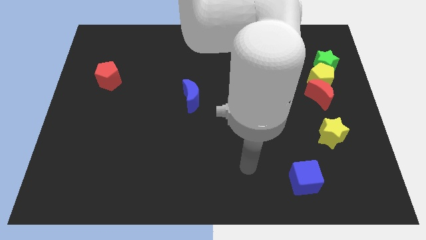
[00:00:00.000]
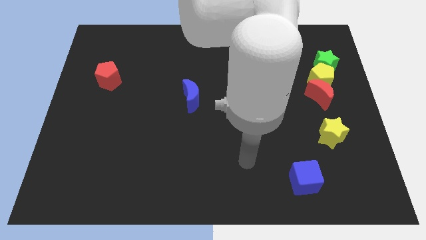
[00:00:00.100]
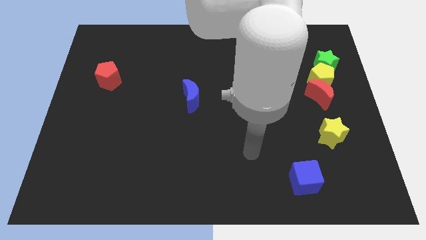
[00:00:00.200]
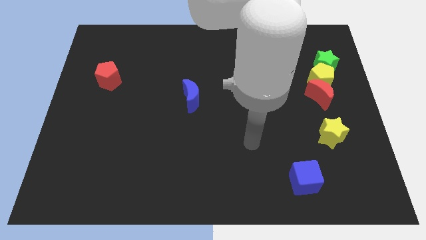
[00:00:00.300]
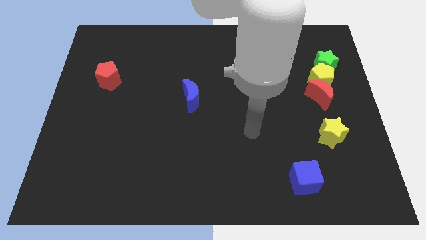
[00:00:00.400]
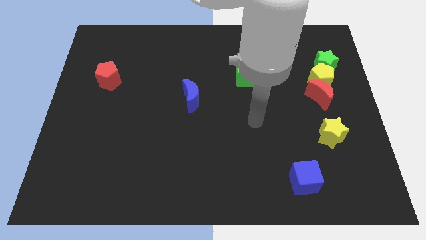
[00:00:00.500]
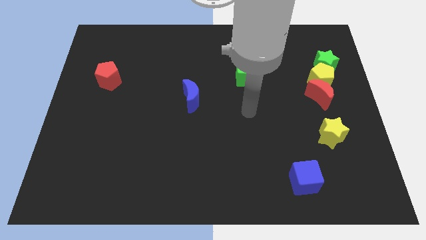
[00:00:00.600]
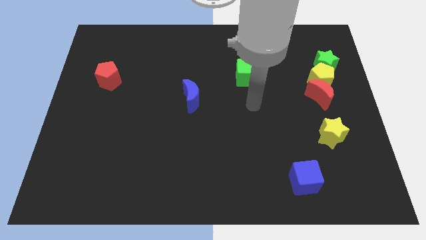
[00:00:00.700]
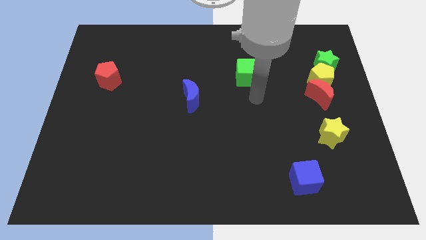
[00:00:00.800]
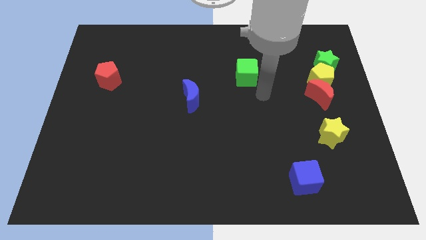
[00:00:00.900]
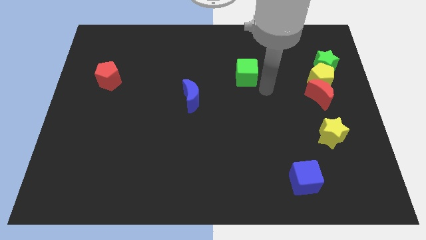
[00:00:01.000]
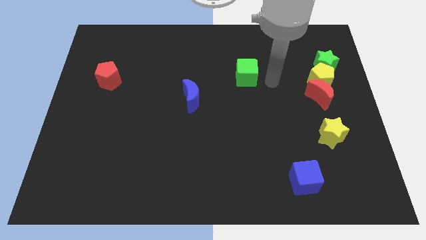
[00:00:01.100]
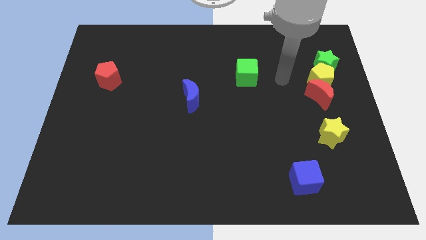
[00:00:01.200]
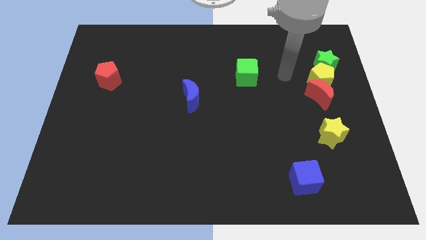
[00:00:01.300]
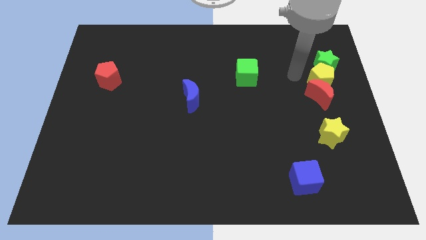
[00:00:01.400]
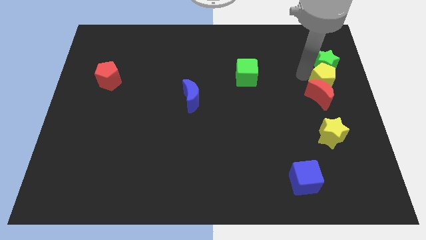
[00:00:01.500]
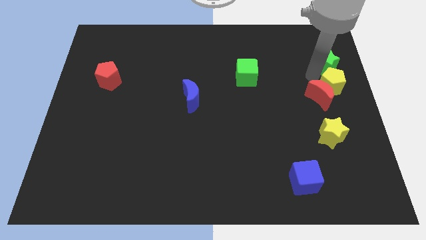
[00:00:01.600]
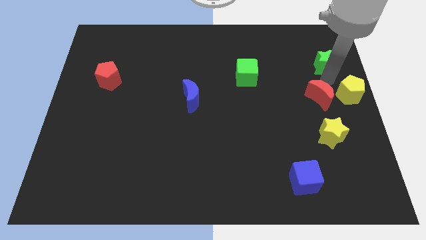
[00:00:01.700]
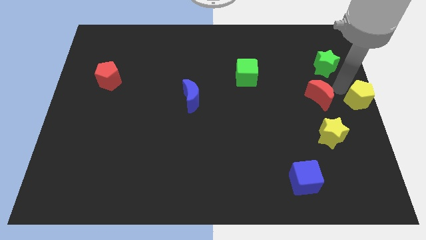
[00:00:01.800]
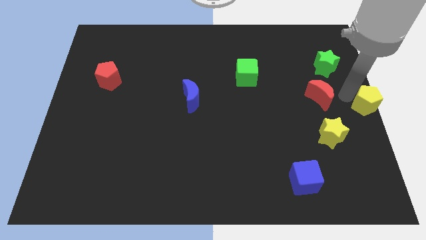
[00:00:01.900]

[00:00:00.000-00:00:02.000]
pull the red moon apart from the yellow pentagon

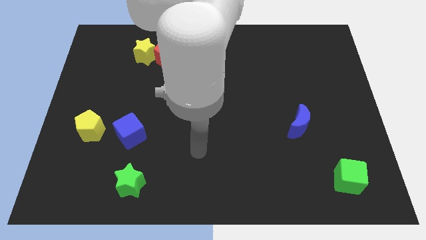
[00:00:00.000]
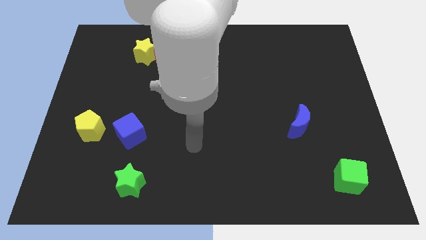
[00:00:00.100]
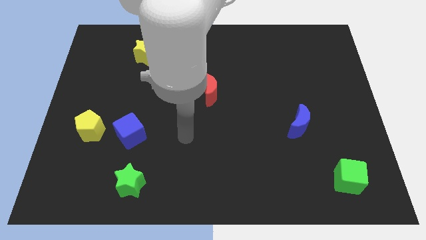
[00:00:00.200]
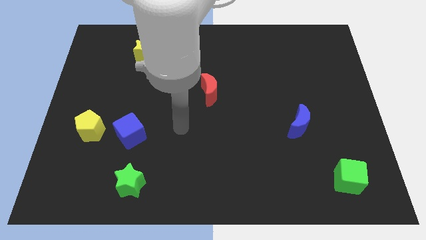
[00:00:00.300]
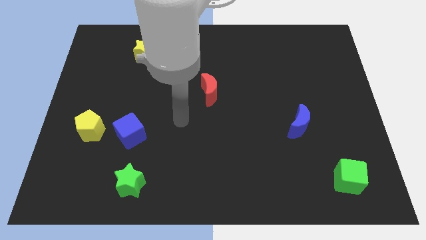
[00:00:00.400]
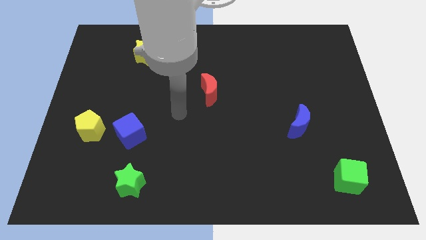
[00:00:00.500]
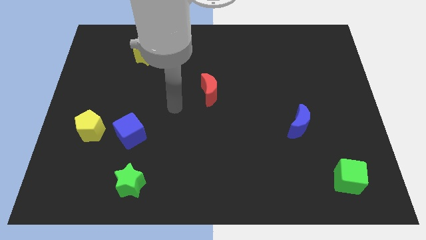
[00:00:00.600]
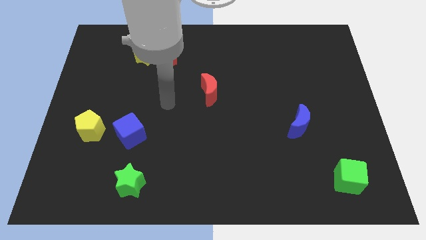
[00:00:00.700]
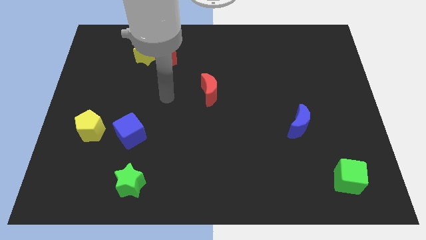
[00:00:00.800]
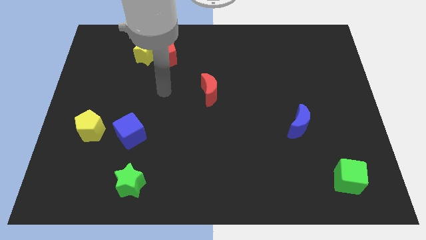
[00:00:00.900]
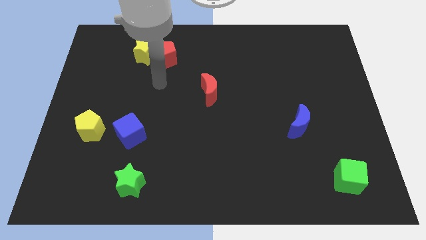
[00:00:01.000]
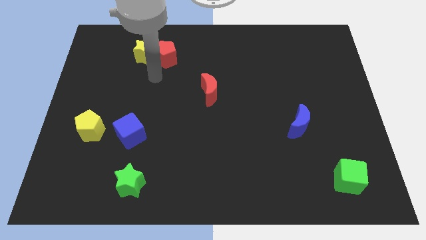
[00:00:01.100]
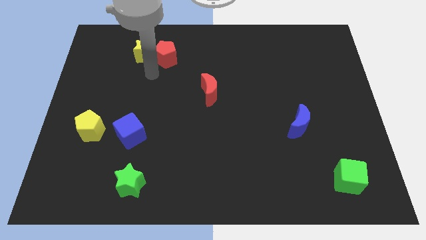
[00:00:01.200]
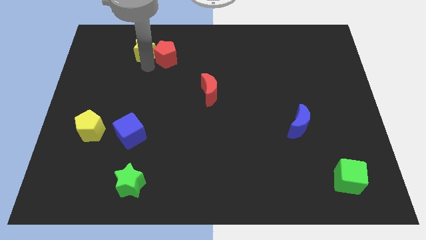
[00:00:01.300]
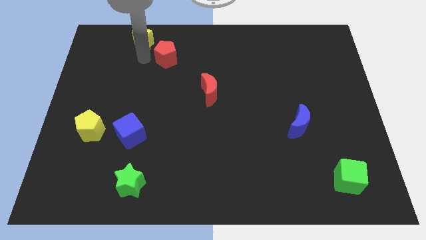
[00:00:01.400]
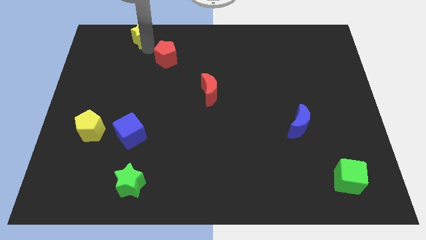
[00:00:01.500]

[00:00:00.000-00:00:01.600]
pull the red pentagon apart from the yellow star

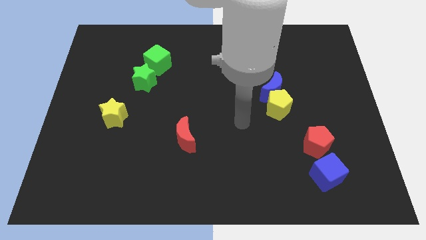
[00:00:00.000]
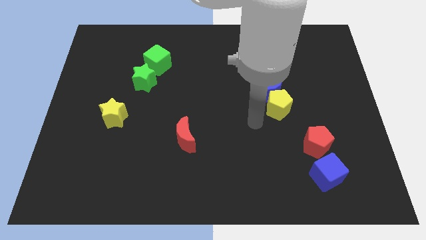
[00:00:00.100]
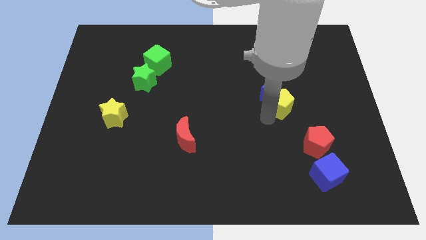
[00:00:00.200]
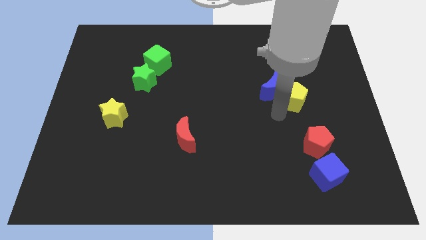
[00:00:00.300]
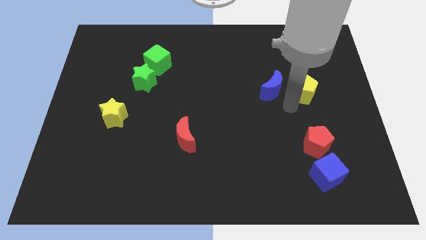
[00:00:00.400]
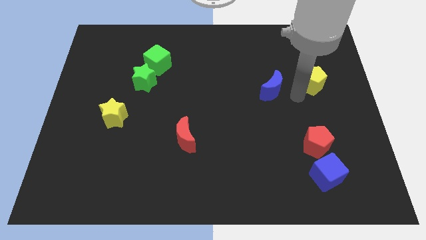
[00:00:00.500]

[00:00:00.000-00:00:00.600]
move the blue moon away from the yellow pentagon

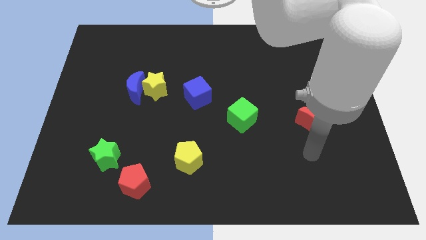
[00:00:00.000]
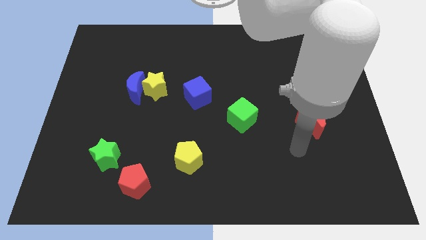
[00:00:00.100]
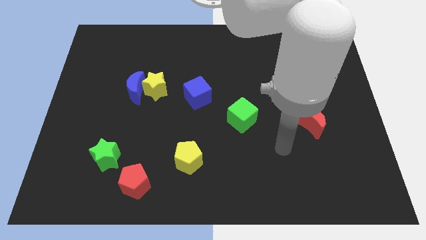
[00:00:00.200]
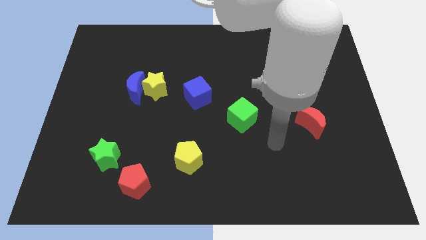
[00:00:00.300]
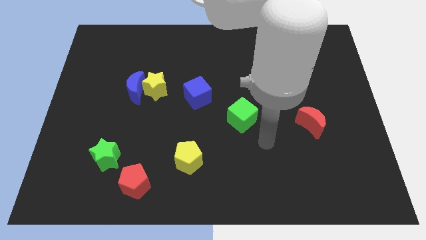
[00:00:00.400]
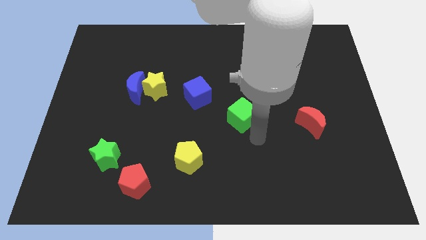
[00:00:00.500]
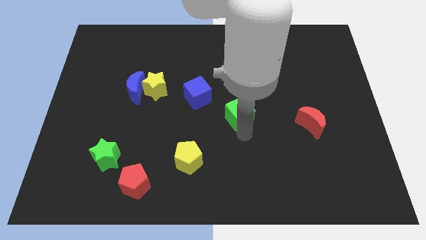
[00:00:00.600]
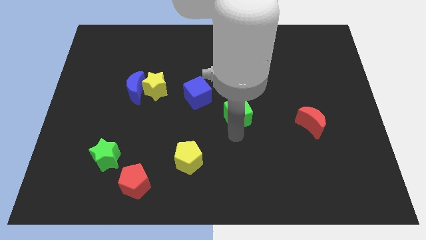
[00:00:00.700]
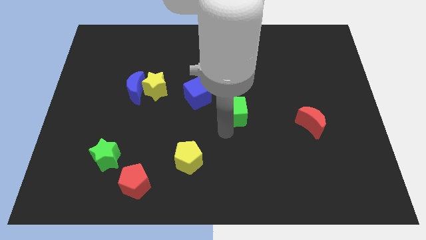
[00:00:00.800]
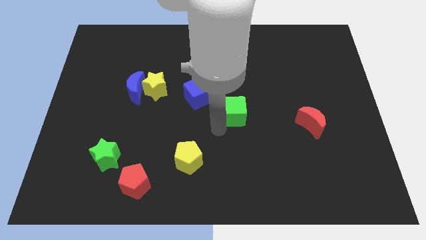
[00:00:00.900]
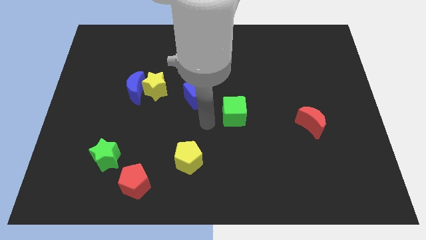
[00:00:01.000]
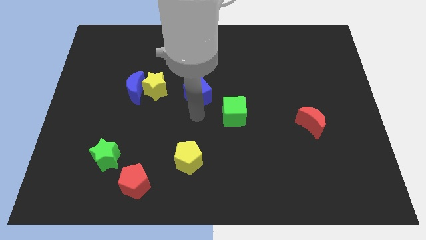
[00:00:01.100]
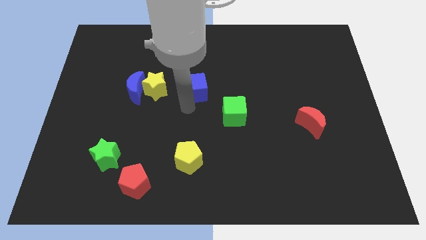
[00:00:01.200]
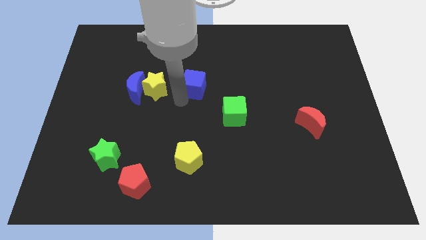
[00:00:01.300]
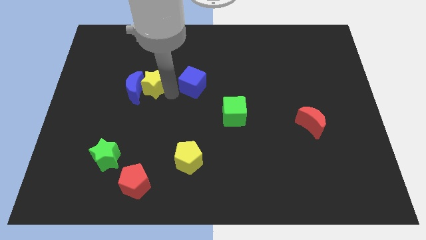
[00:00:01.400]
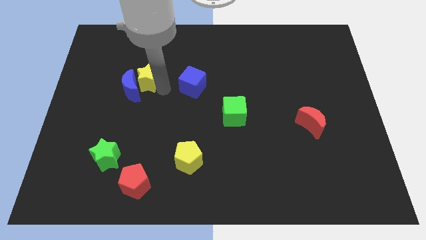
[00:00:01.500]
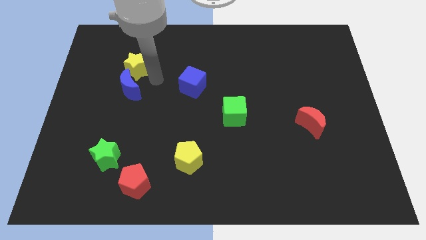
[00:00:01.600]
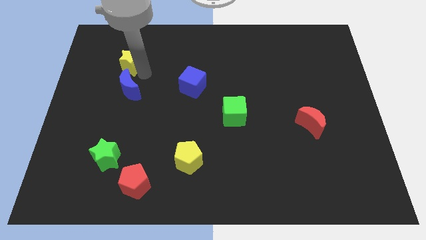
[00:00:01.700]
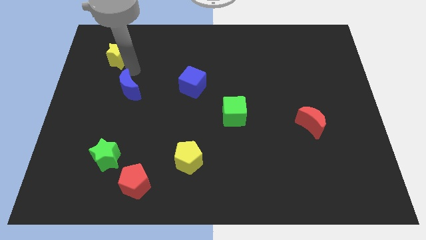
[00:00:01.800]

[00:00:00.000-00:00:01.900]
separate the blue moon from the yellow star

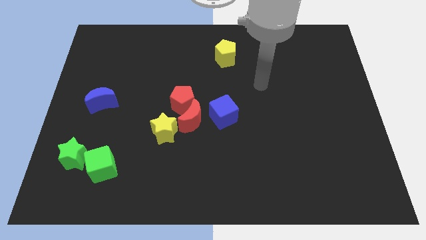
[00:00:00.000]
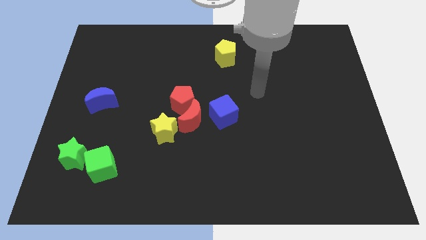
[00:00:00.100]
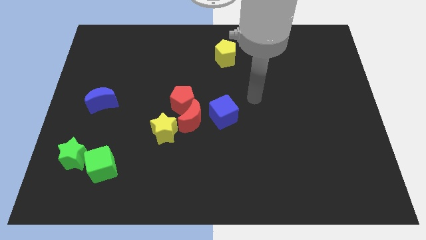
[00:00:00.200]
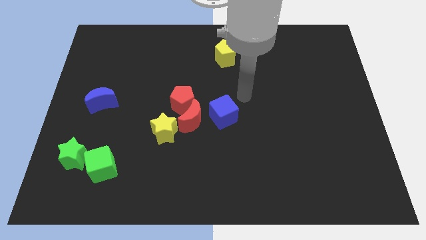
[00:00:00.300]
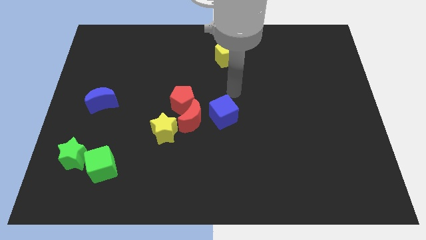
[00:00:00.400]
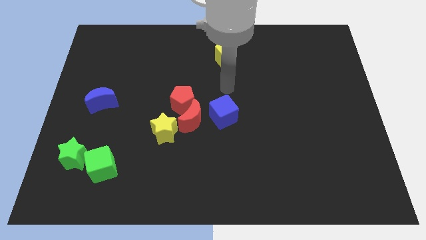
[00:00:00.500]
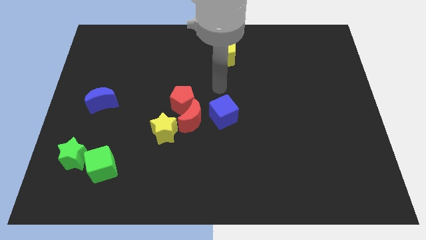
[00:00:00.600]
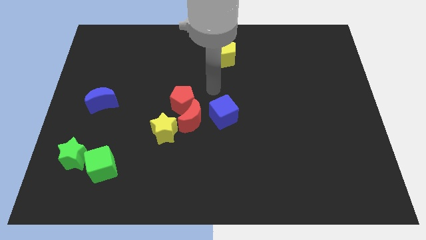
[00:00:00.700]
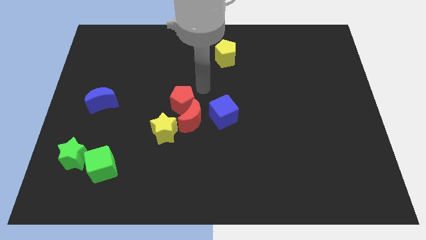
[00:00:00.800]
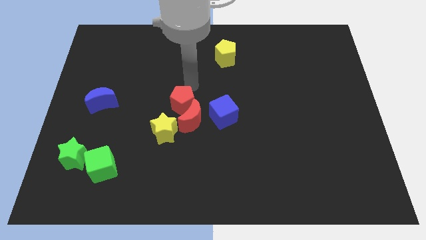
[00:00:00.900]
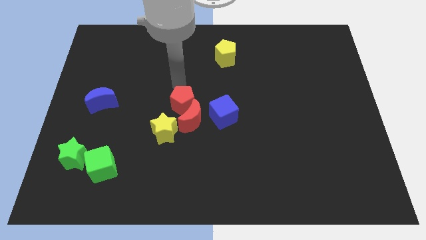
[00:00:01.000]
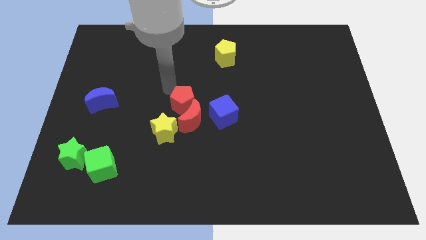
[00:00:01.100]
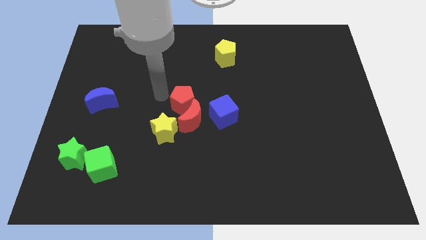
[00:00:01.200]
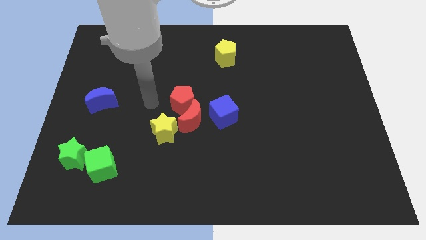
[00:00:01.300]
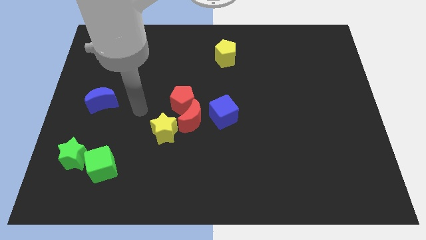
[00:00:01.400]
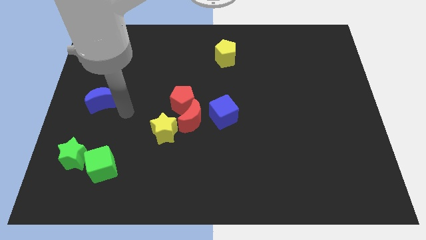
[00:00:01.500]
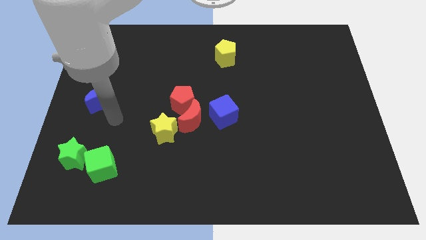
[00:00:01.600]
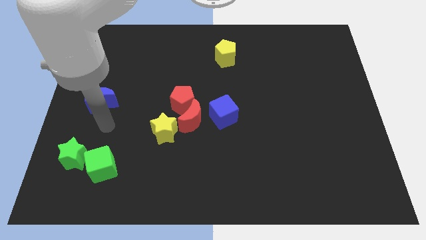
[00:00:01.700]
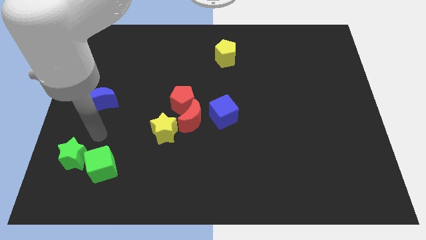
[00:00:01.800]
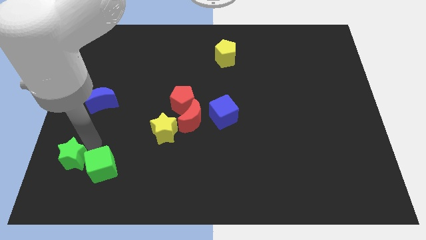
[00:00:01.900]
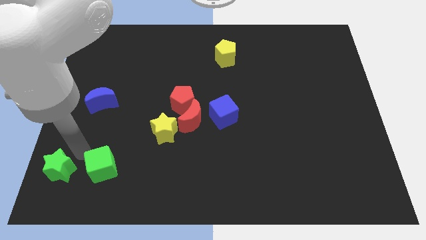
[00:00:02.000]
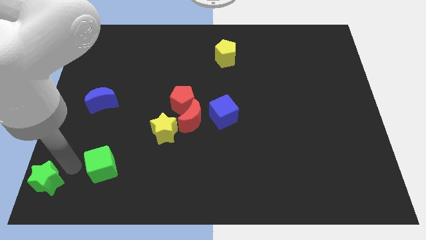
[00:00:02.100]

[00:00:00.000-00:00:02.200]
pull the green cube apart from the green star

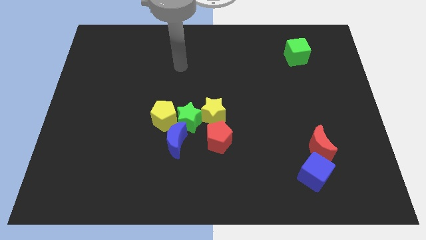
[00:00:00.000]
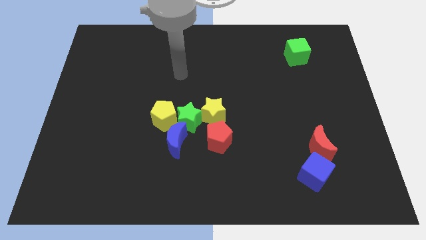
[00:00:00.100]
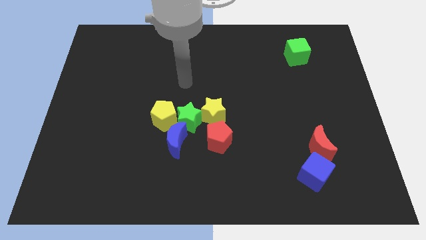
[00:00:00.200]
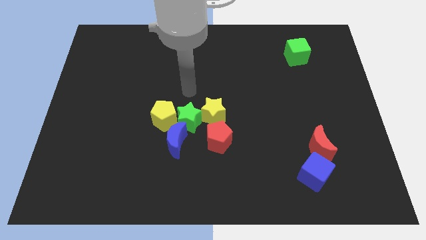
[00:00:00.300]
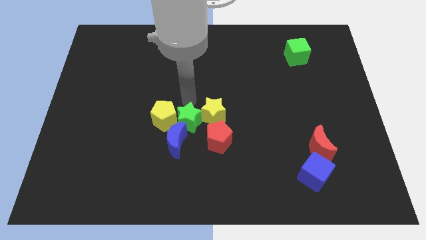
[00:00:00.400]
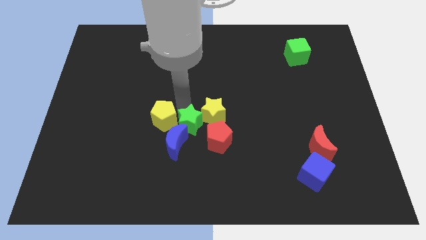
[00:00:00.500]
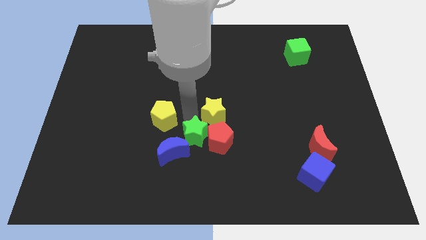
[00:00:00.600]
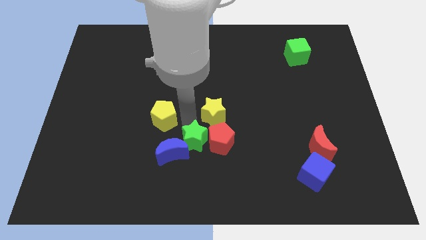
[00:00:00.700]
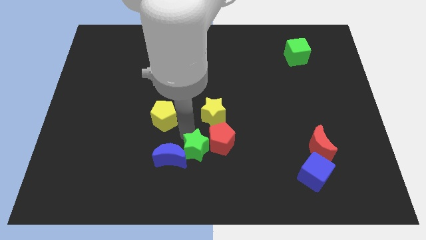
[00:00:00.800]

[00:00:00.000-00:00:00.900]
separate the yellow pentagon from the green star and blue moon
